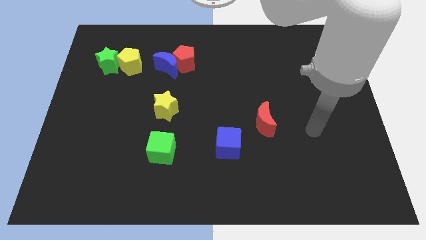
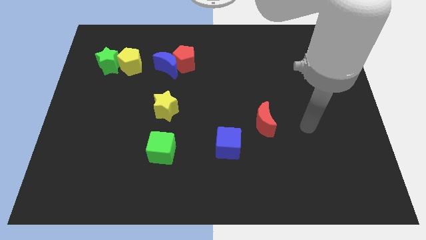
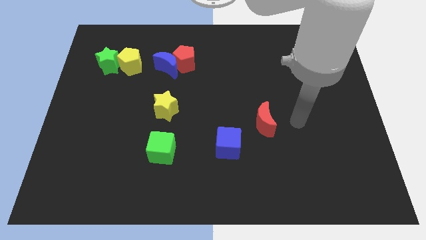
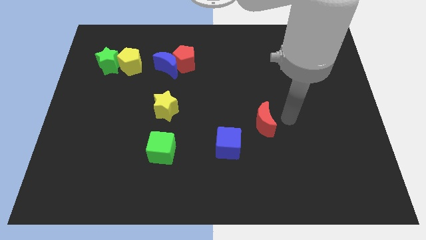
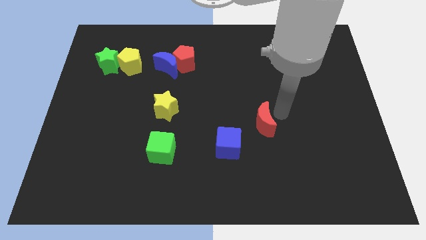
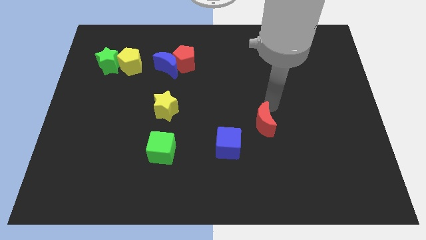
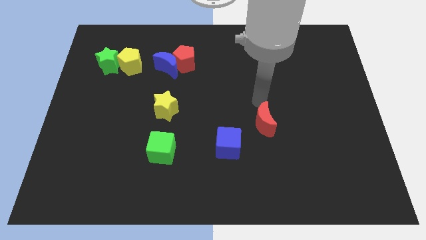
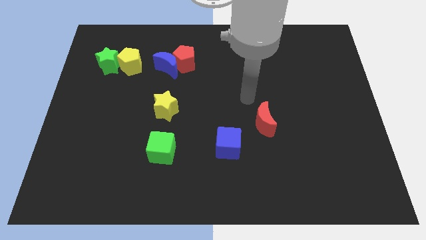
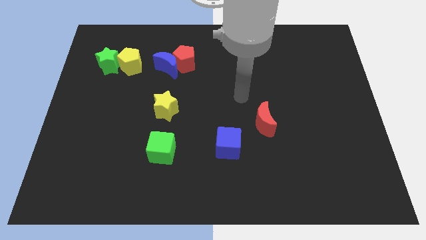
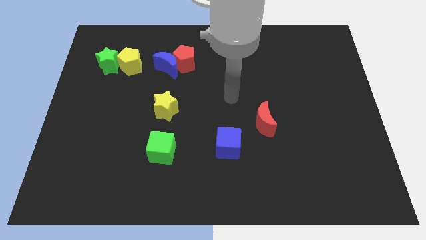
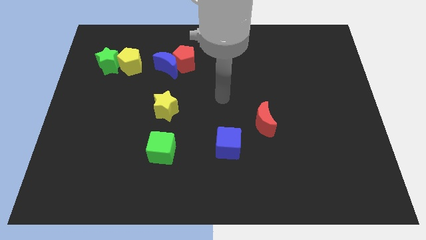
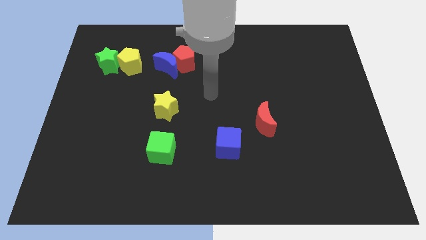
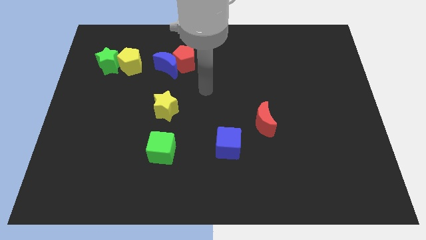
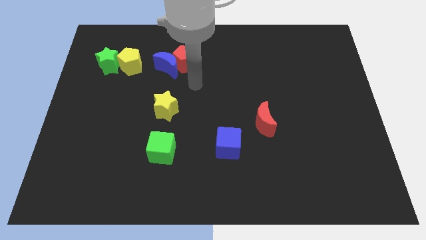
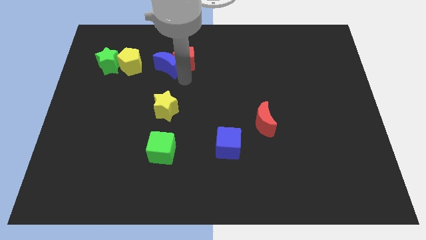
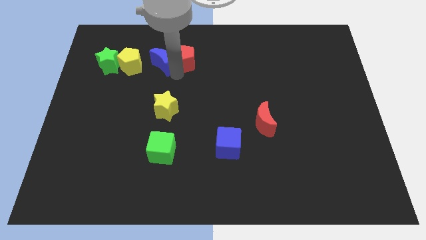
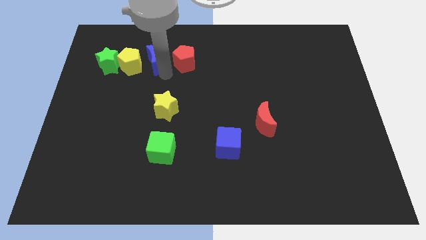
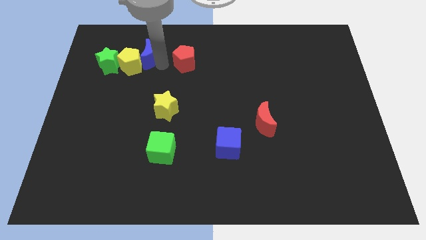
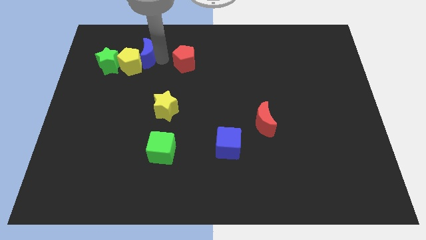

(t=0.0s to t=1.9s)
pull the red pentagon apart from the blue moon

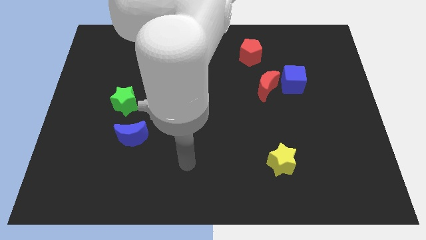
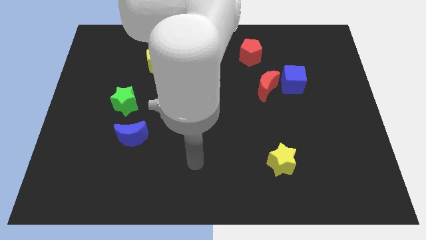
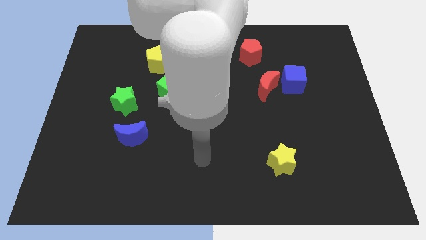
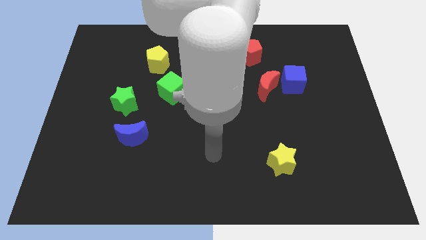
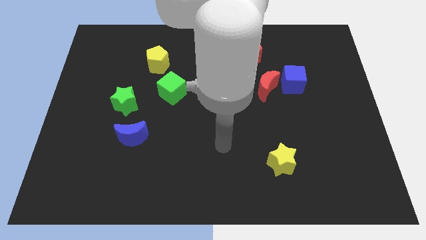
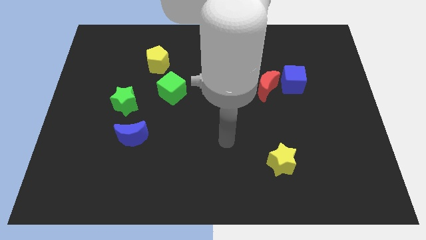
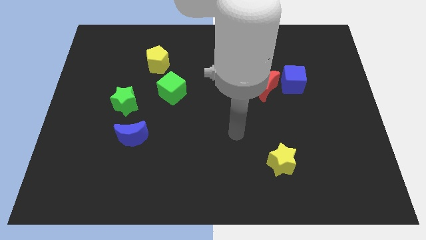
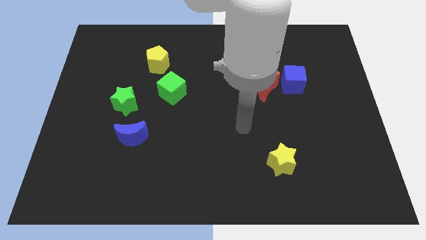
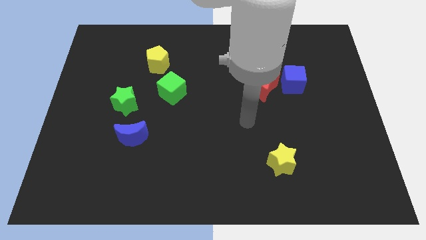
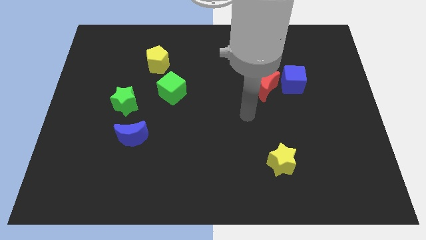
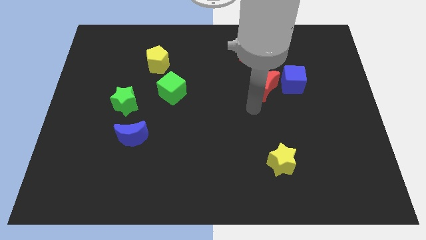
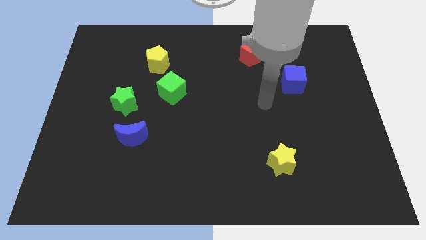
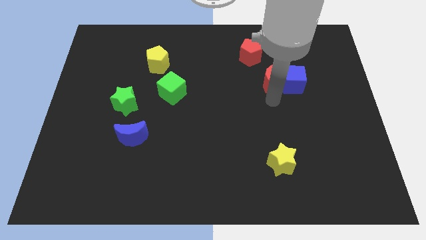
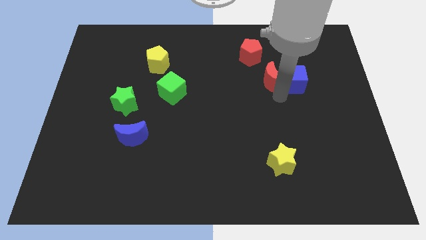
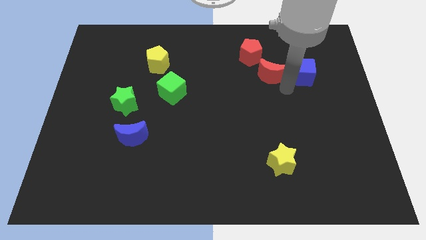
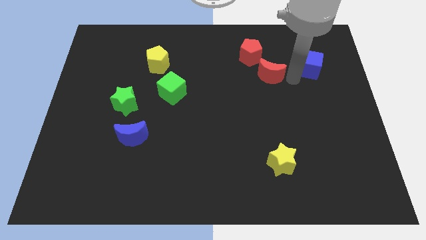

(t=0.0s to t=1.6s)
pull the red moon apart from the blue cube

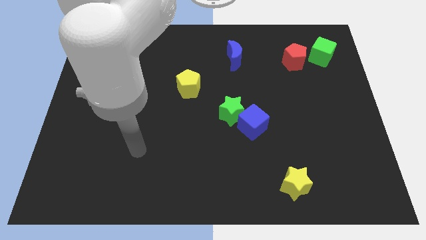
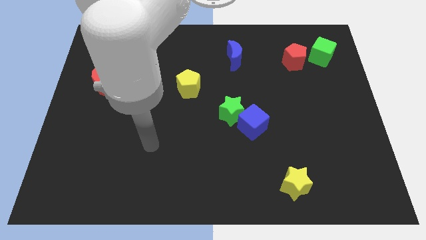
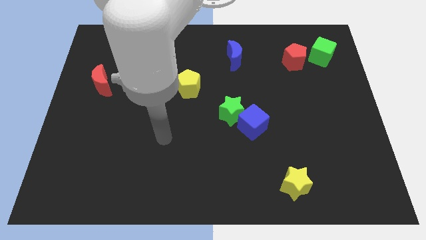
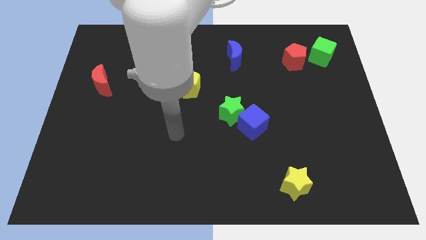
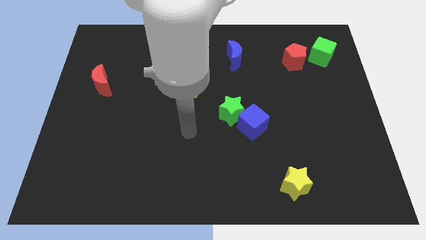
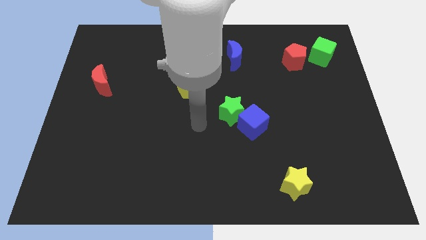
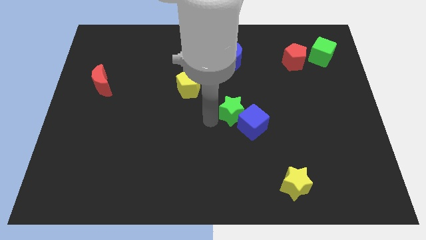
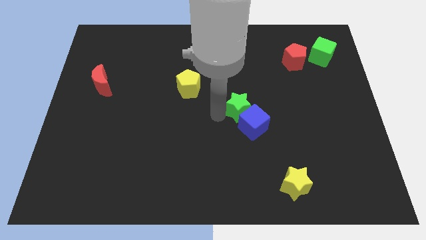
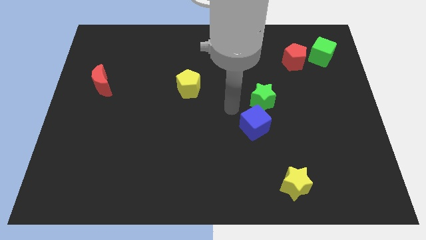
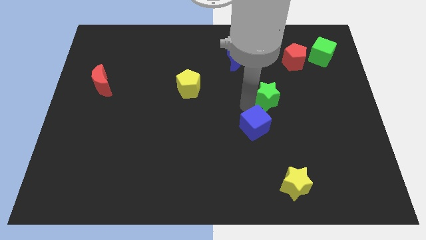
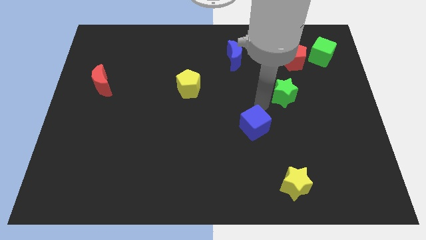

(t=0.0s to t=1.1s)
pull the blue cube apart from the green star

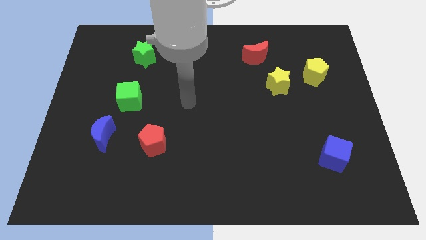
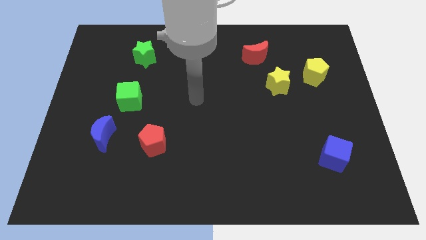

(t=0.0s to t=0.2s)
separate the yellow star from the yellow pentagon

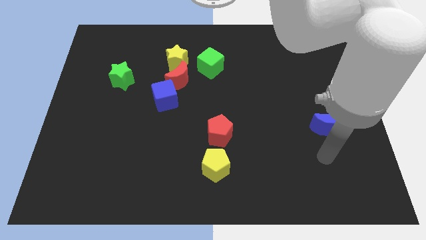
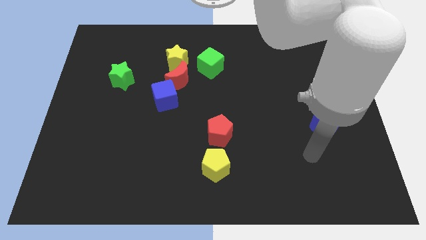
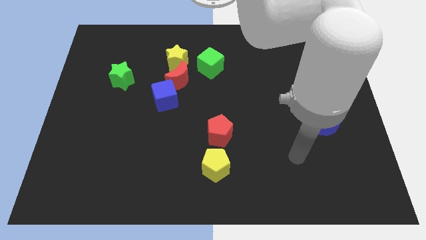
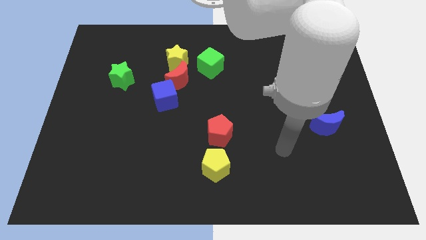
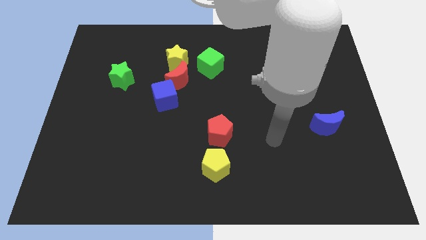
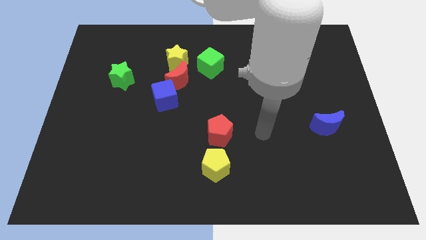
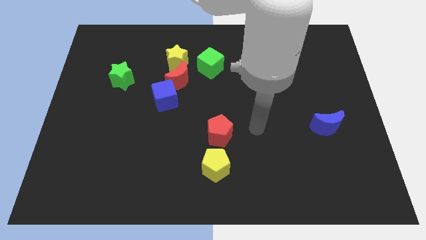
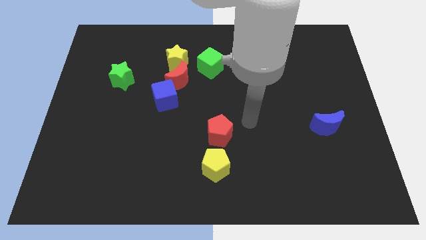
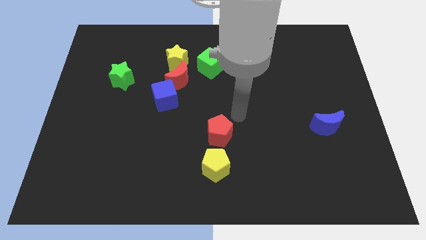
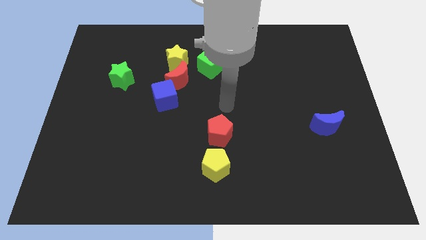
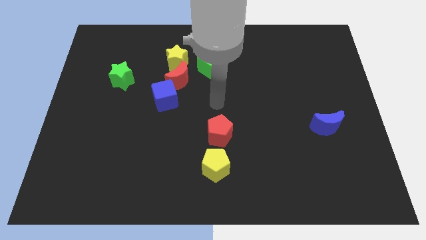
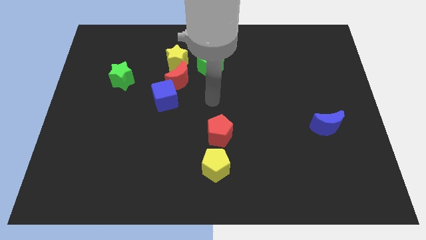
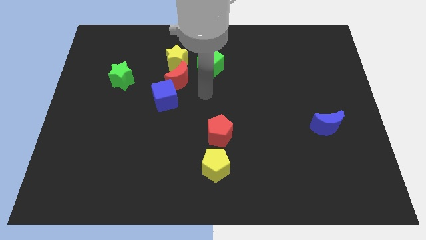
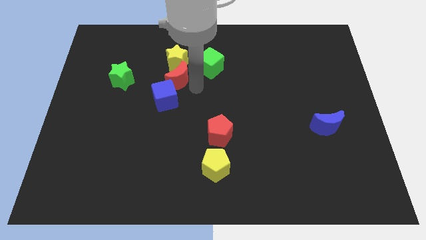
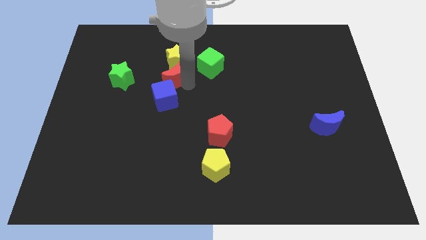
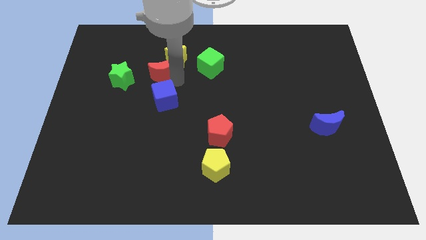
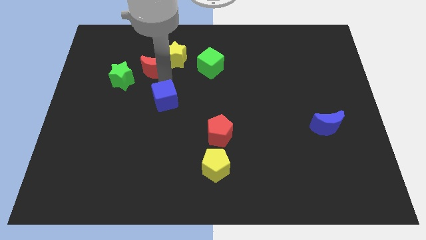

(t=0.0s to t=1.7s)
move the blue cube away from the red moon

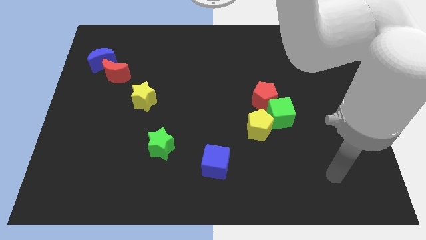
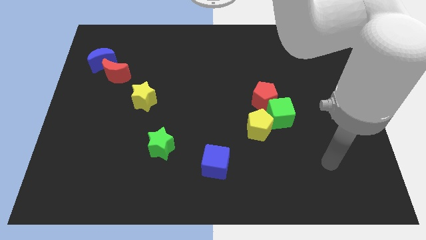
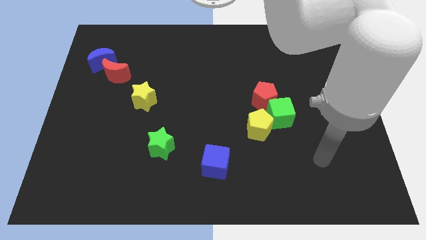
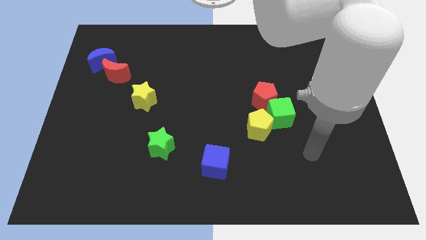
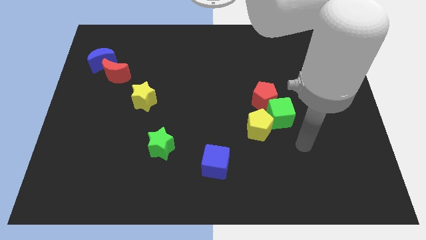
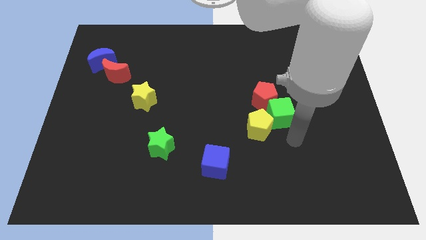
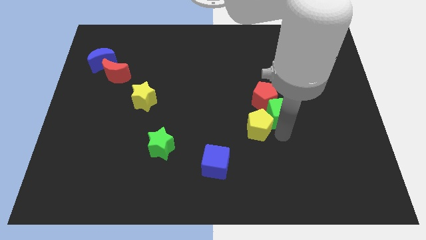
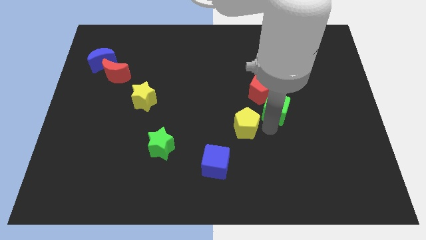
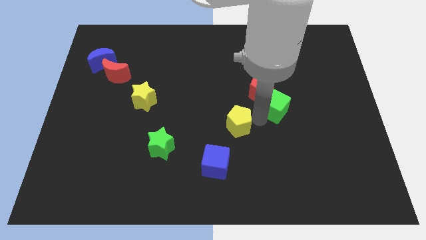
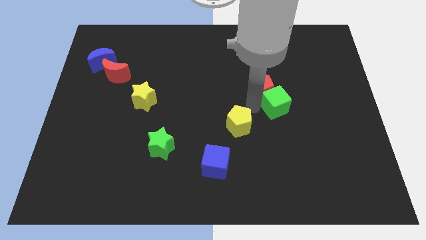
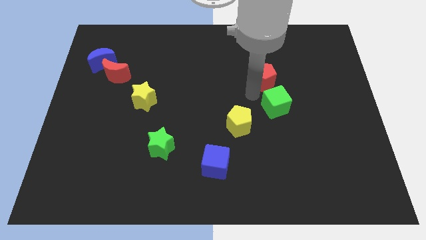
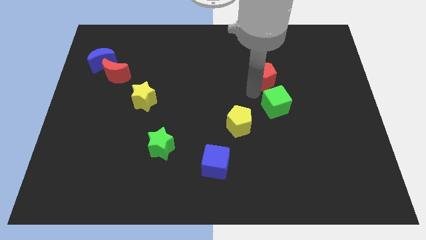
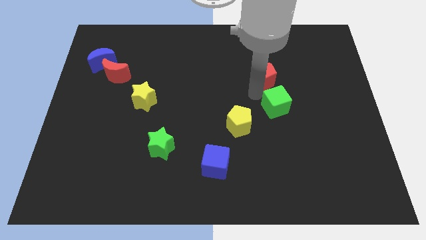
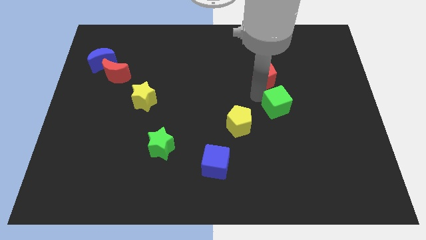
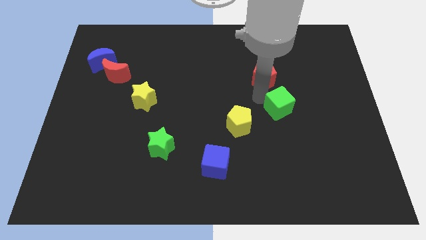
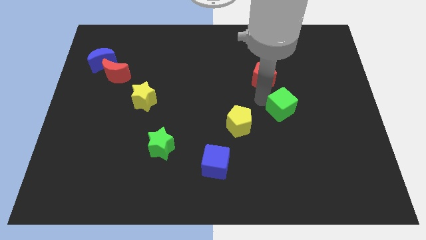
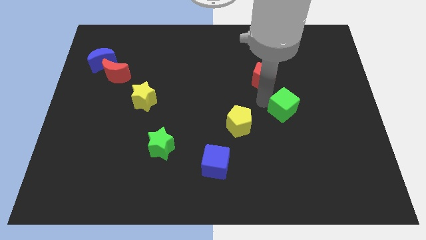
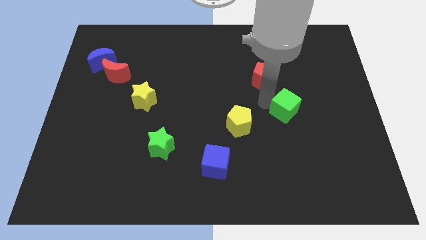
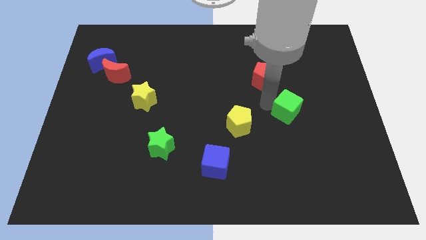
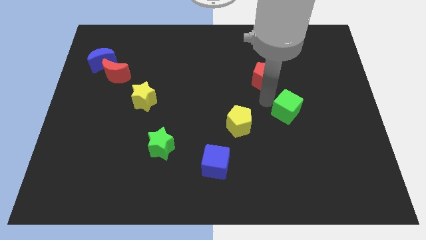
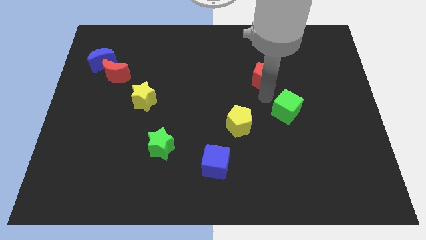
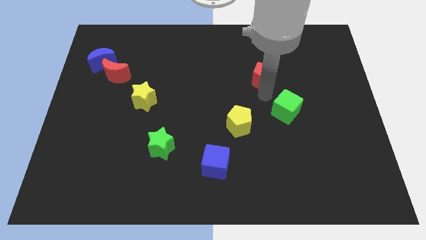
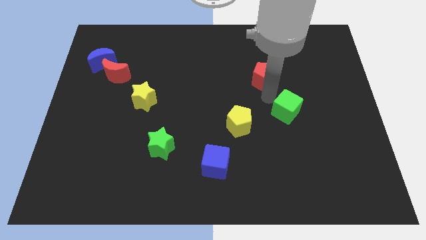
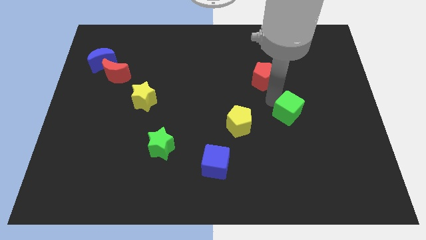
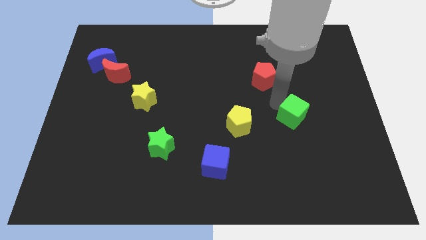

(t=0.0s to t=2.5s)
separate the green cube from the red pentagon and yellow pentagon

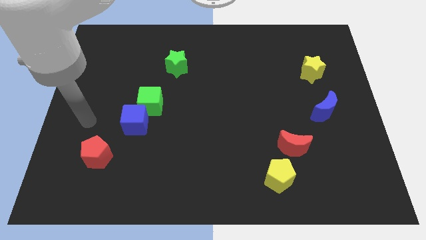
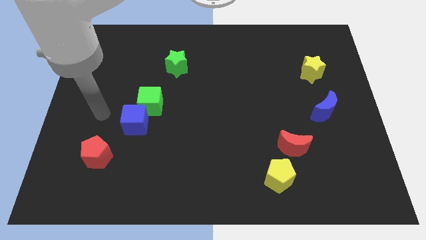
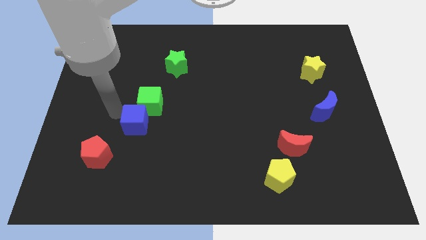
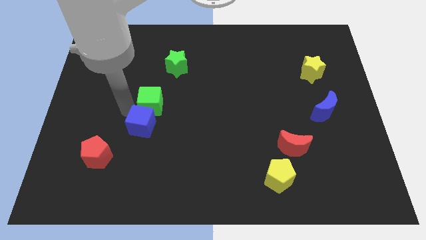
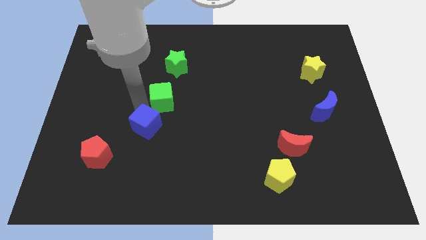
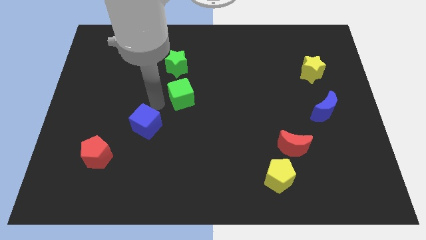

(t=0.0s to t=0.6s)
pull the blue cube apart from the green cube
